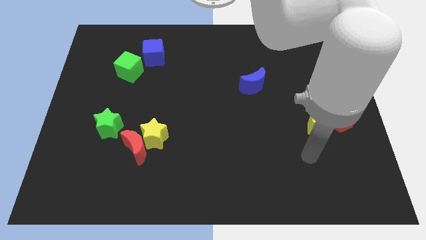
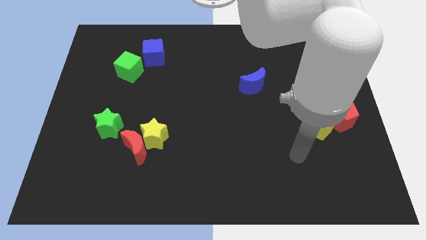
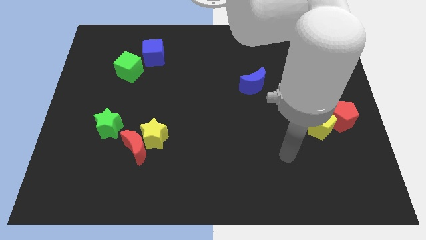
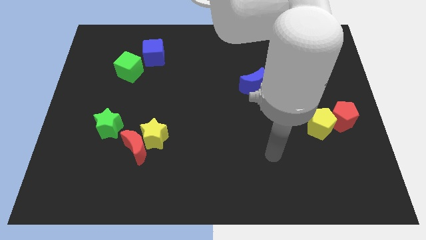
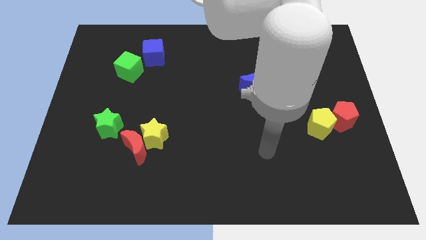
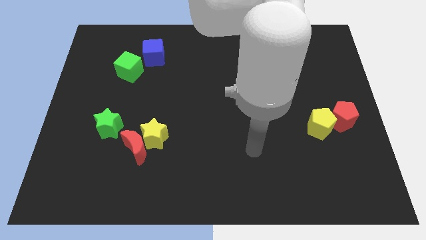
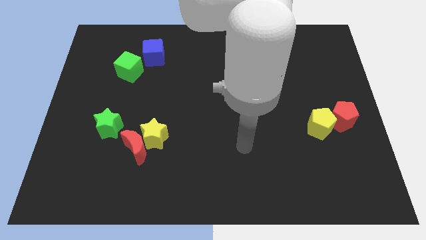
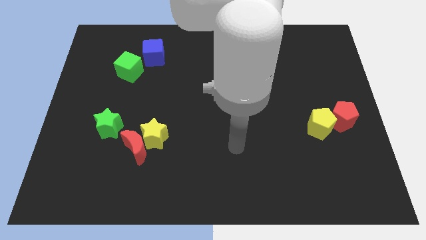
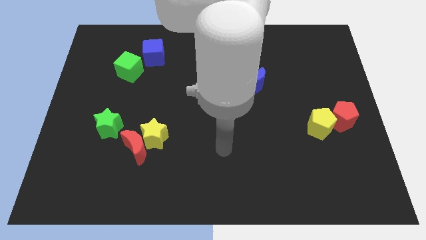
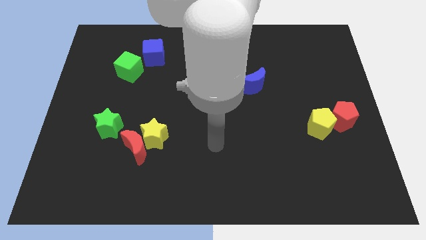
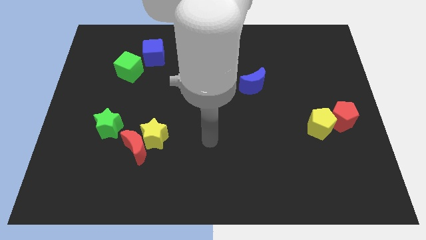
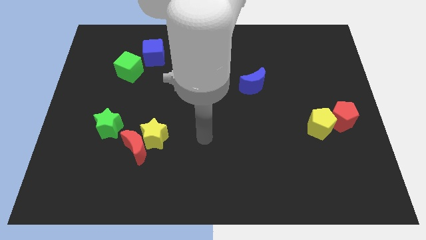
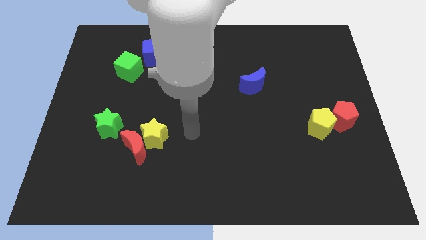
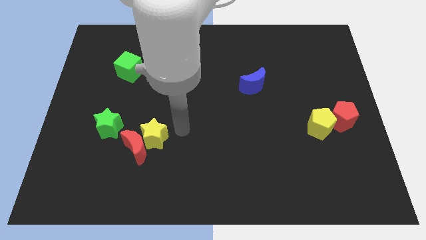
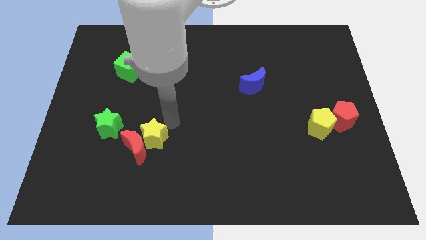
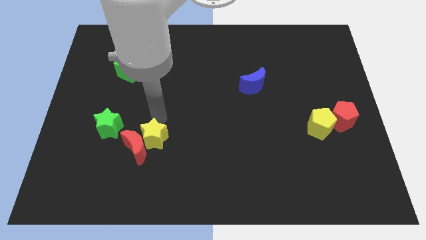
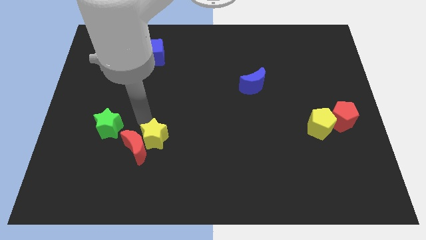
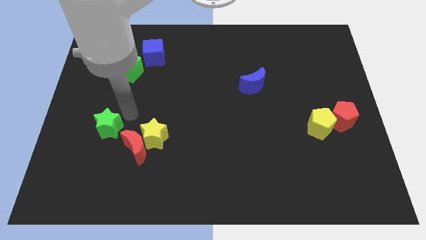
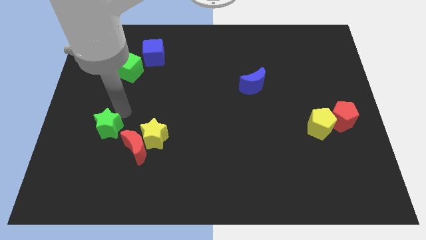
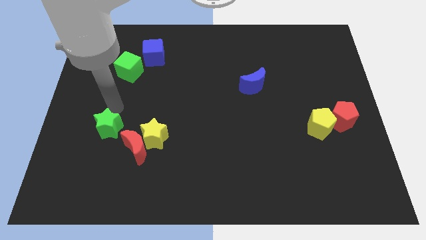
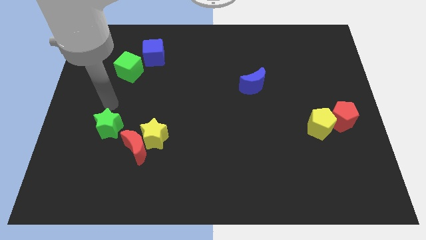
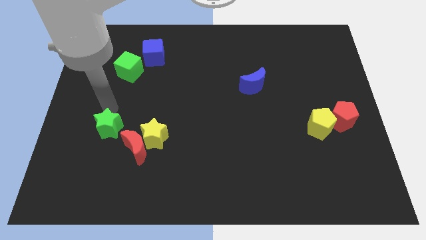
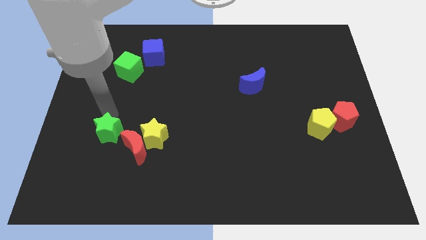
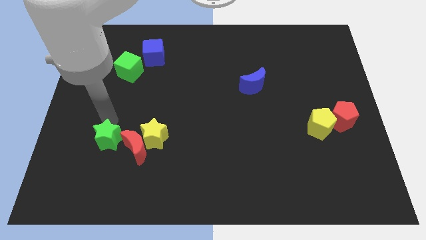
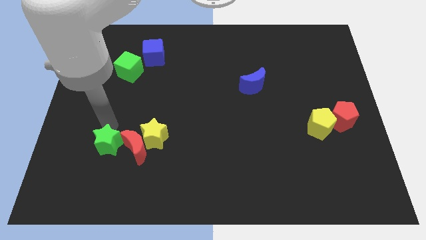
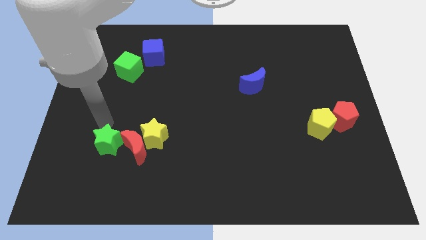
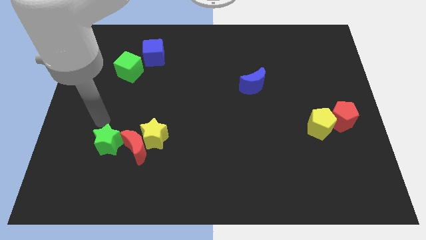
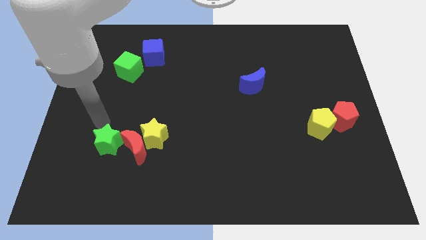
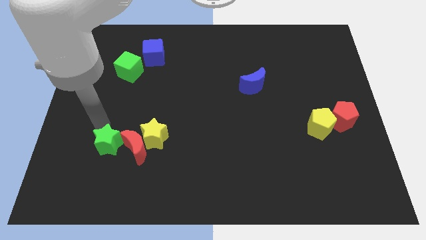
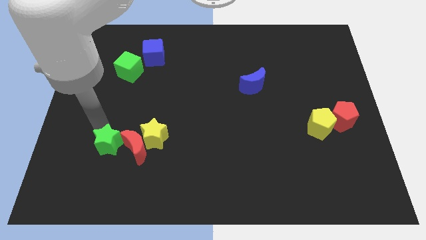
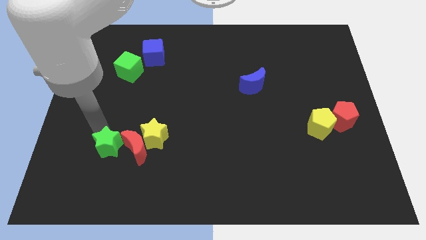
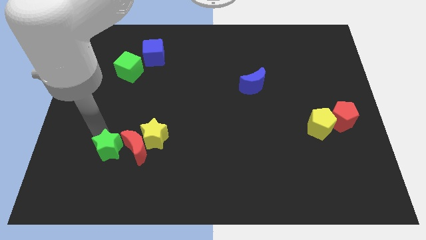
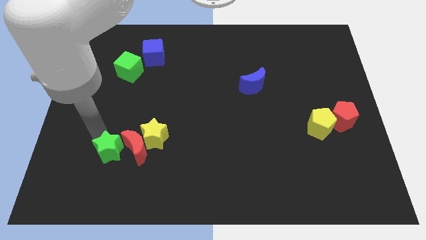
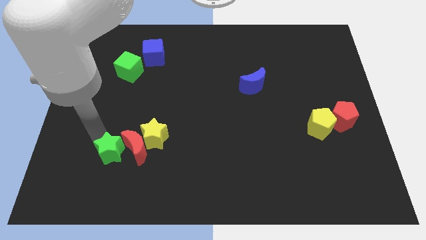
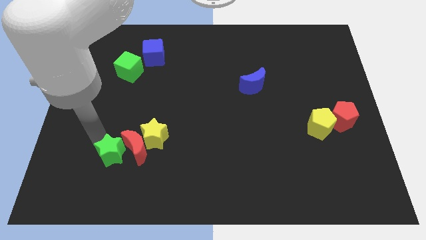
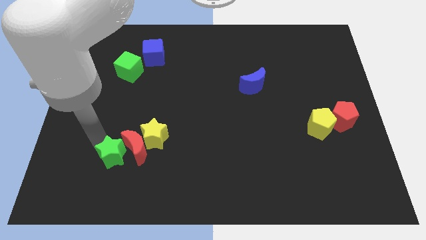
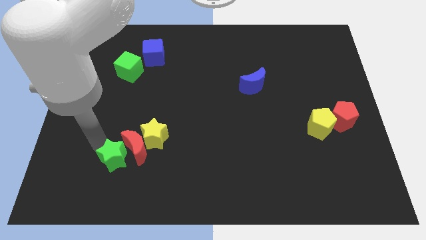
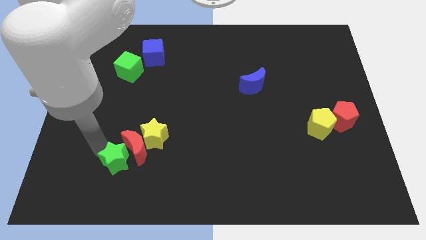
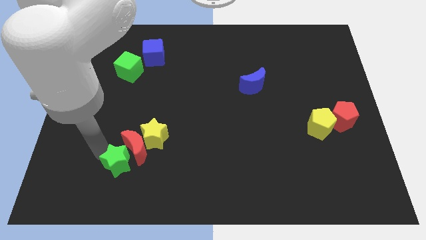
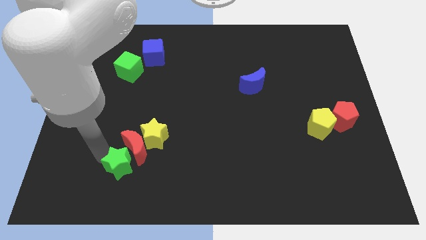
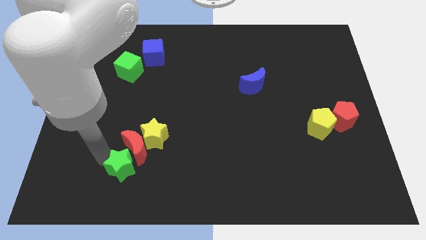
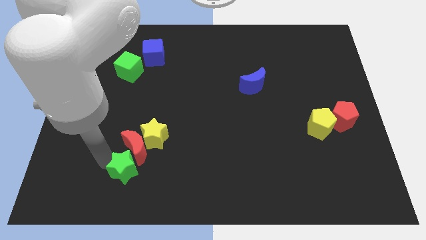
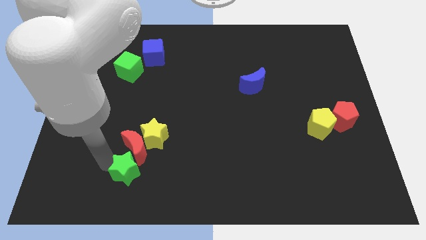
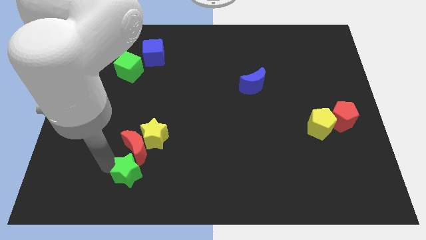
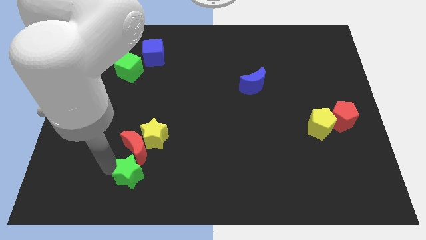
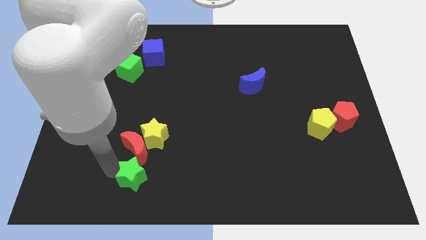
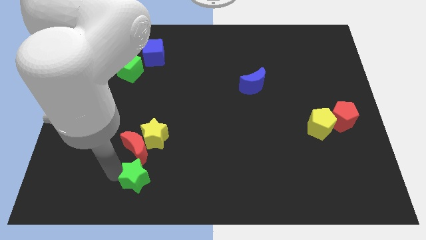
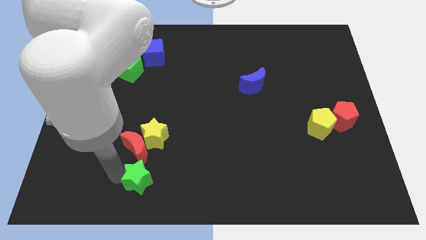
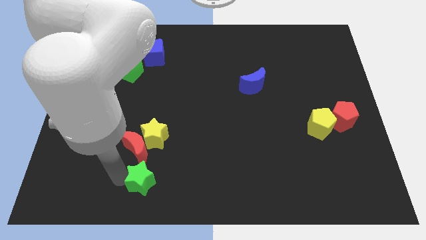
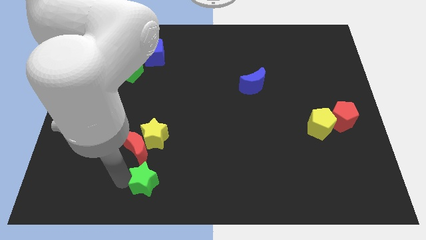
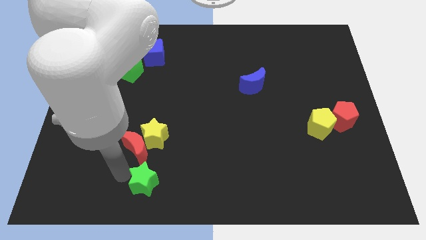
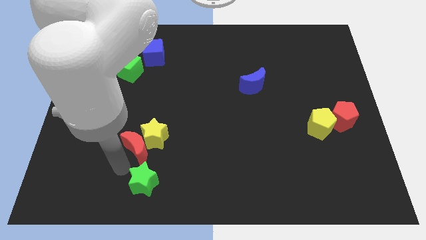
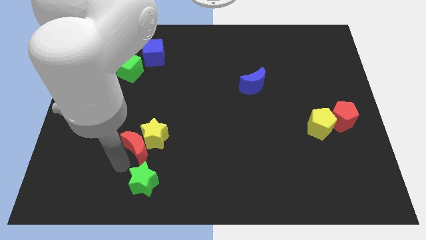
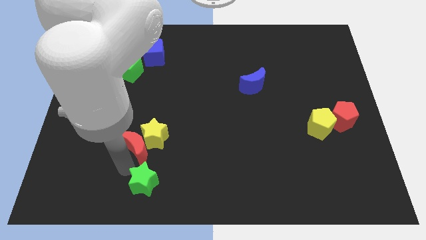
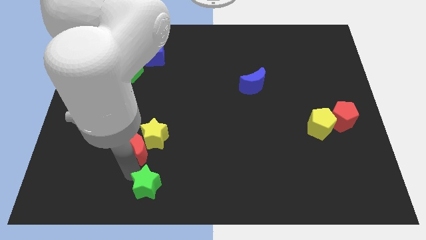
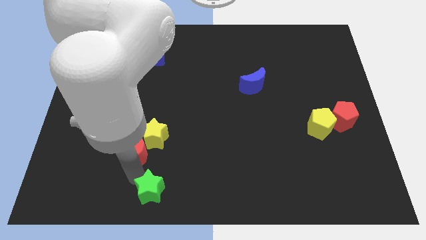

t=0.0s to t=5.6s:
put the green star to the bottom side

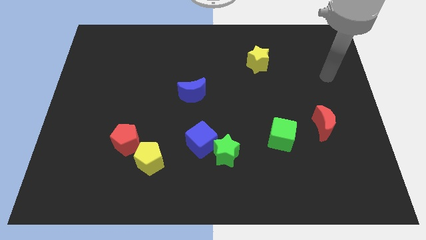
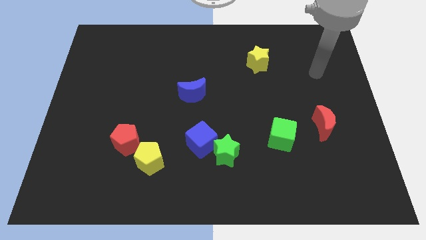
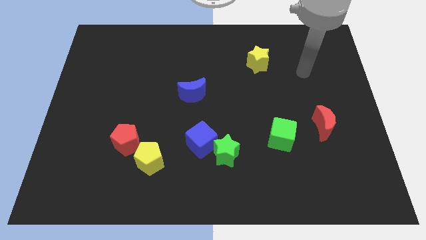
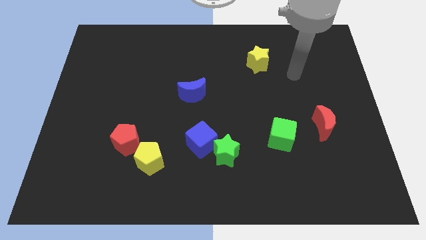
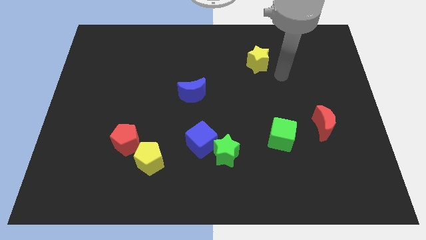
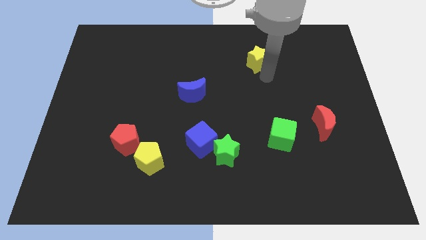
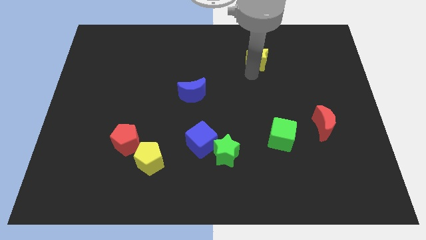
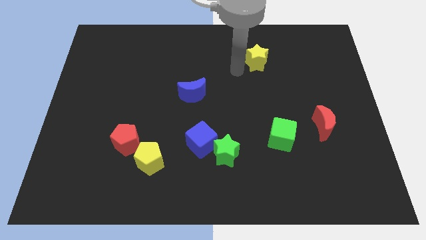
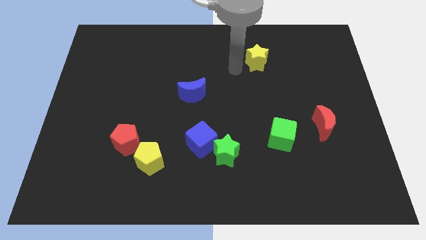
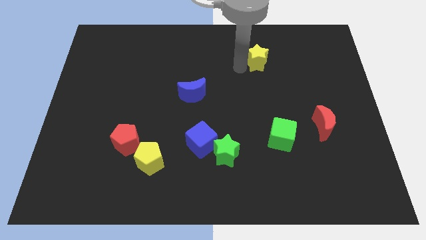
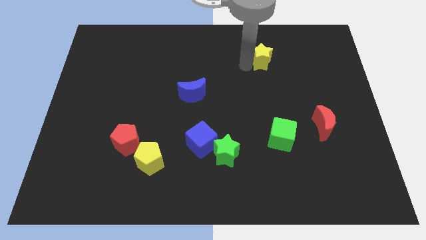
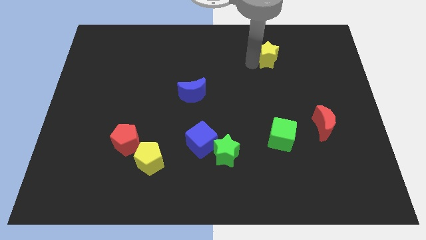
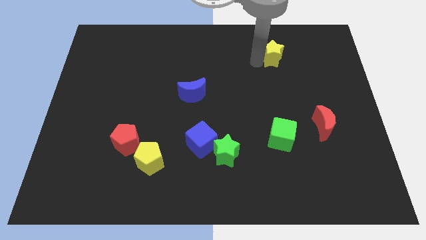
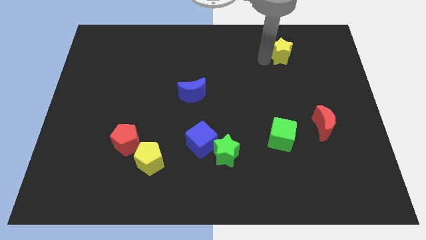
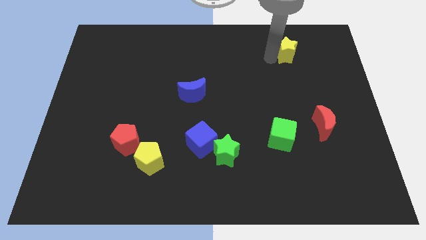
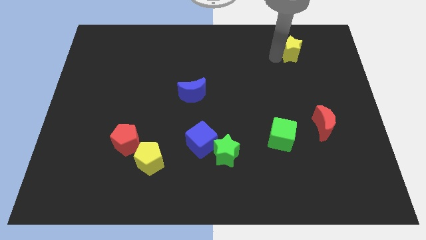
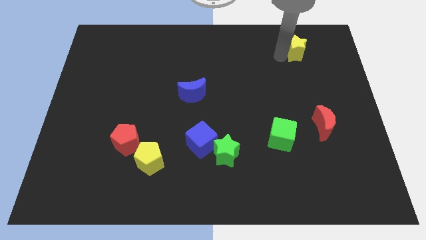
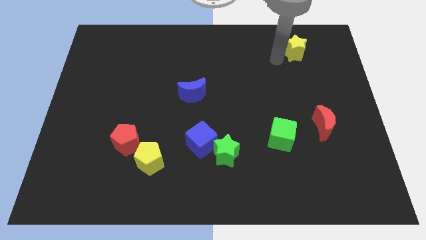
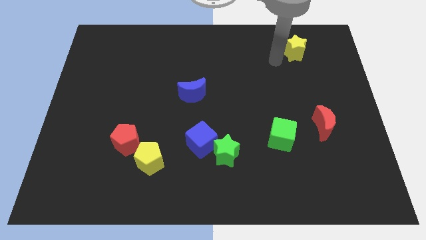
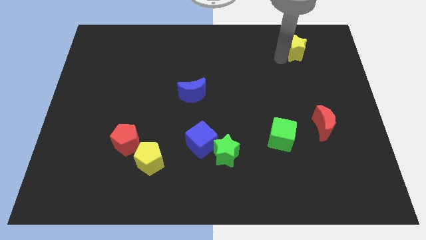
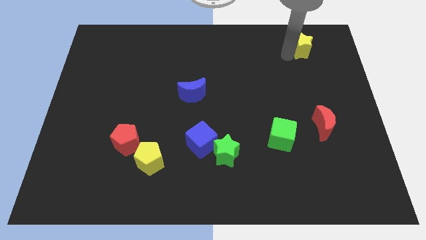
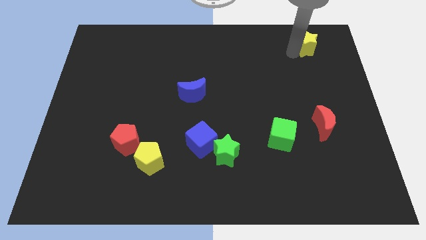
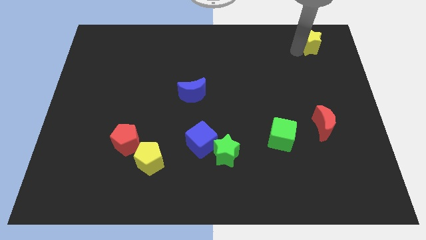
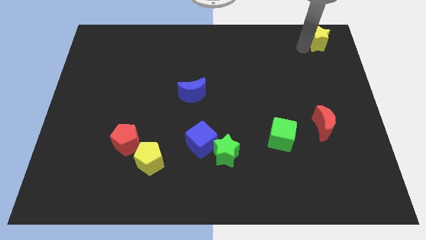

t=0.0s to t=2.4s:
put the yellow star to the top right of the board
